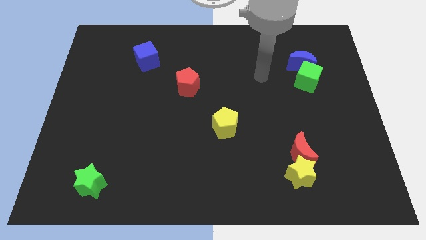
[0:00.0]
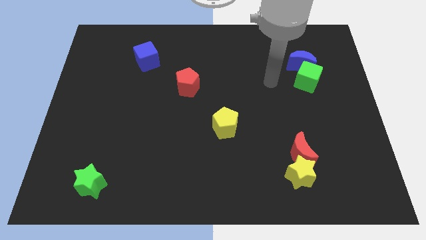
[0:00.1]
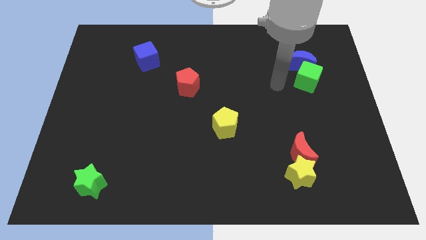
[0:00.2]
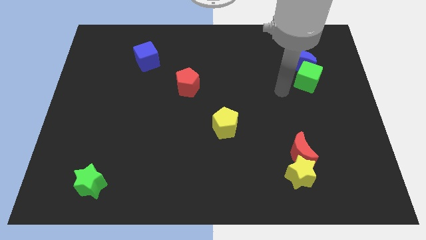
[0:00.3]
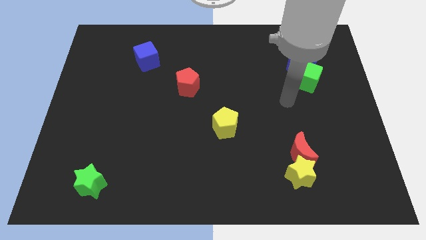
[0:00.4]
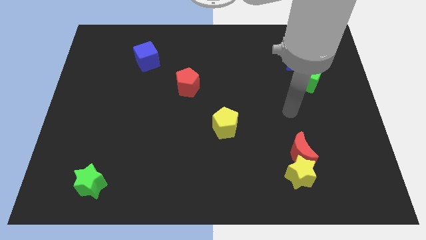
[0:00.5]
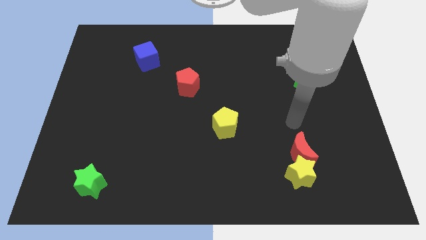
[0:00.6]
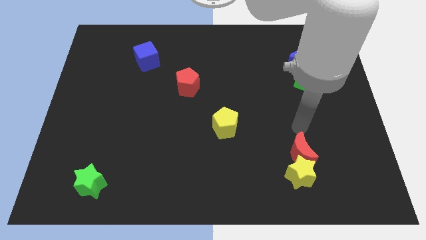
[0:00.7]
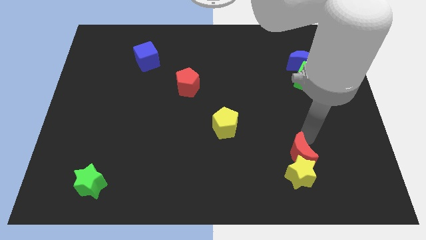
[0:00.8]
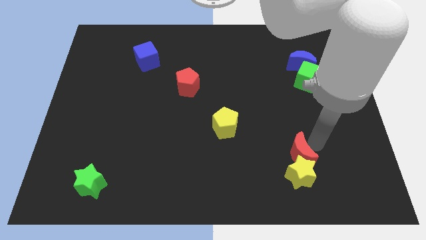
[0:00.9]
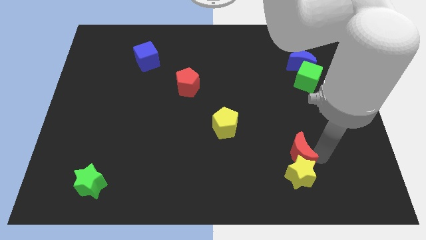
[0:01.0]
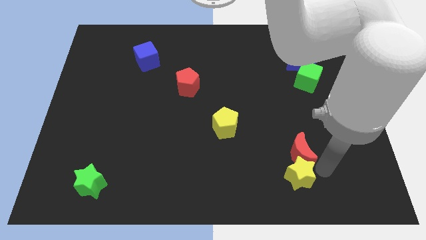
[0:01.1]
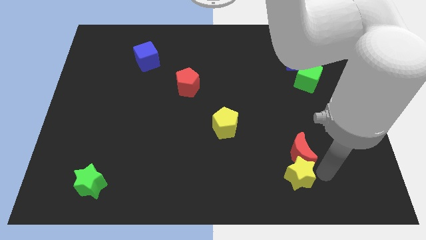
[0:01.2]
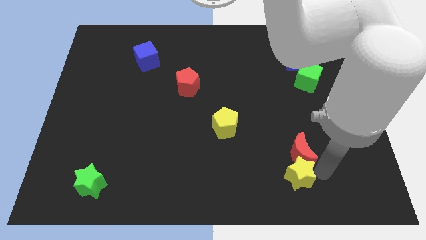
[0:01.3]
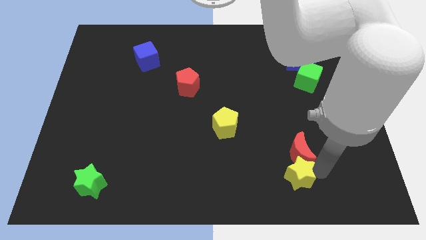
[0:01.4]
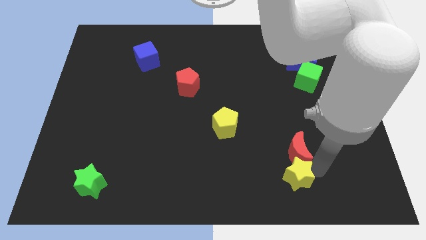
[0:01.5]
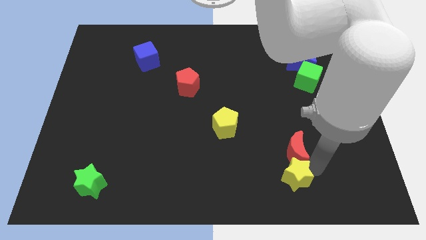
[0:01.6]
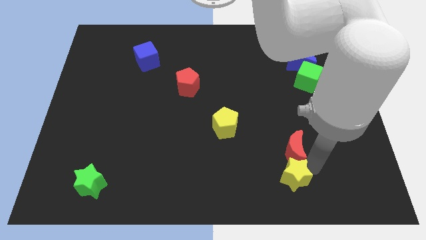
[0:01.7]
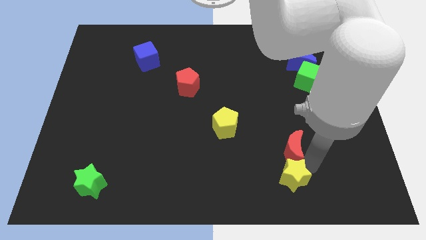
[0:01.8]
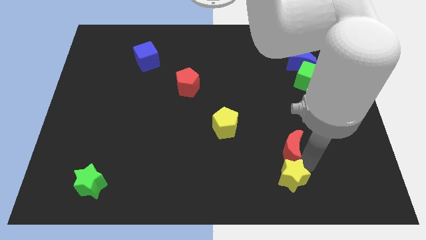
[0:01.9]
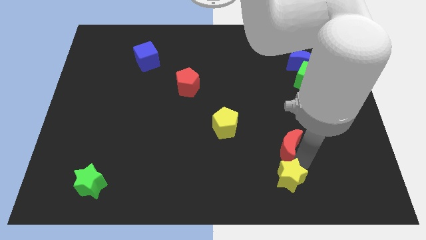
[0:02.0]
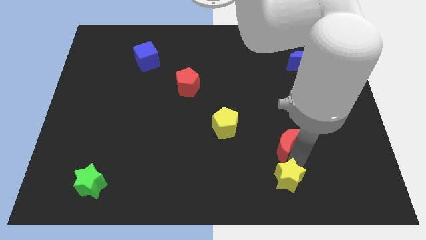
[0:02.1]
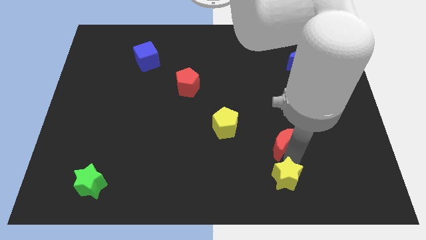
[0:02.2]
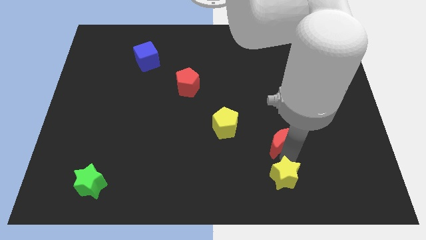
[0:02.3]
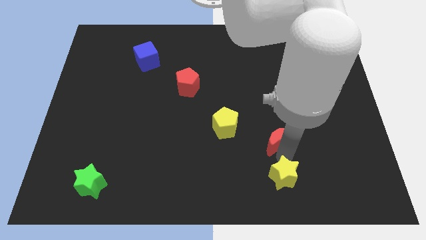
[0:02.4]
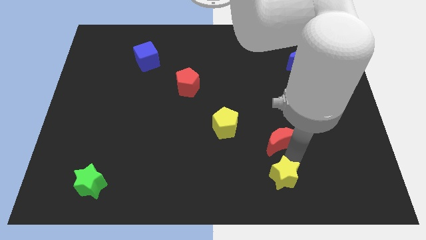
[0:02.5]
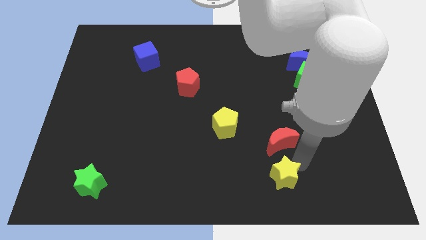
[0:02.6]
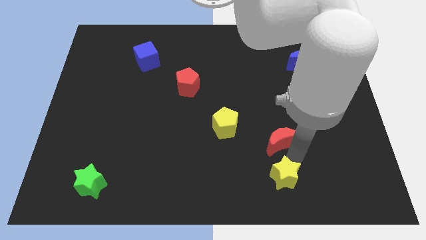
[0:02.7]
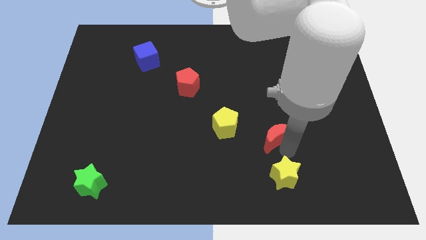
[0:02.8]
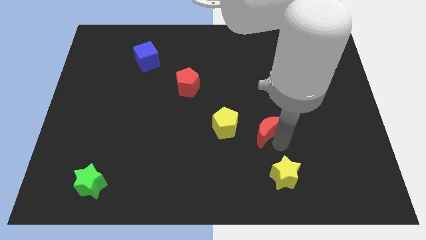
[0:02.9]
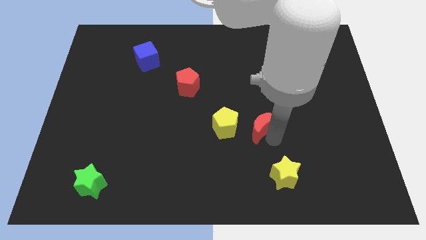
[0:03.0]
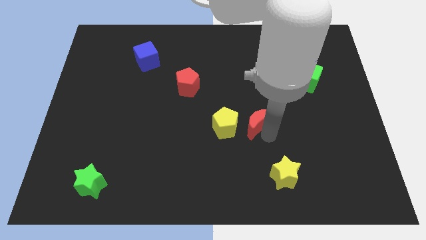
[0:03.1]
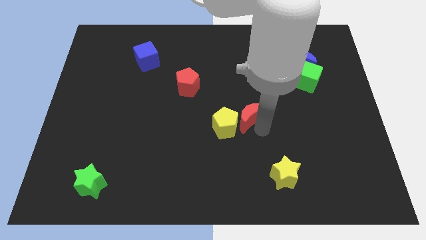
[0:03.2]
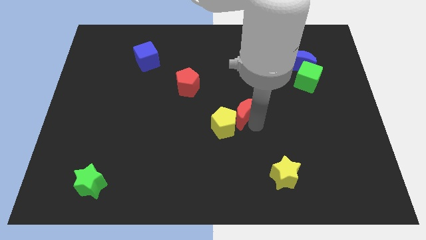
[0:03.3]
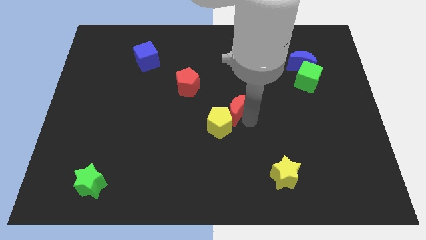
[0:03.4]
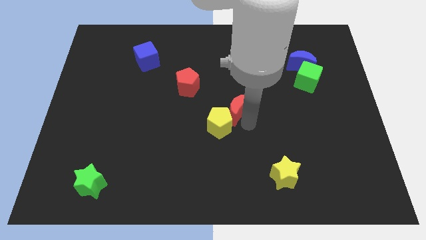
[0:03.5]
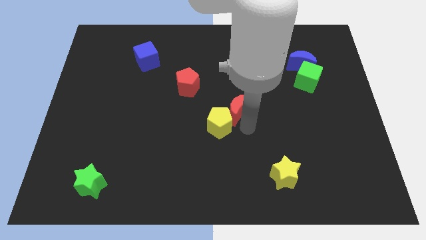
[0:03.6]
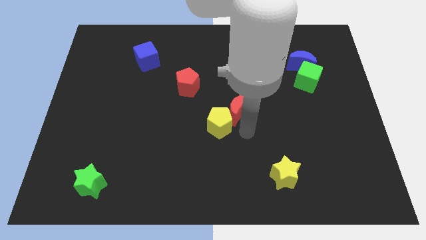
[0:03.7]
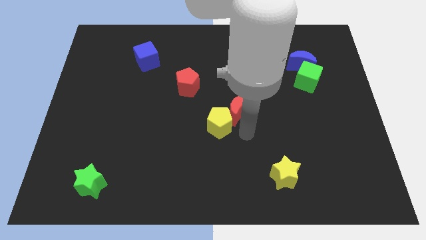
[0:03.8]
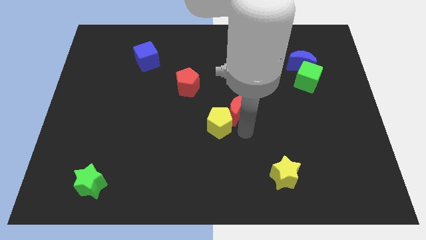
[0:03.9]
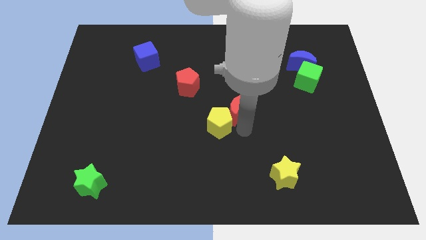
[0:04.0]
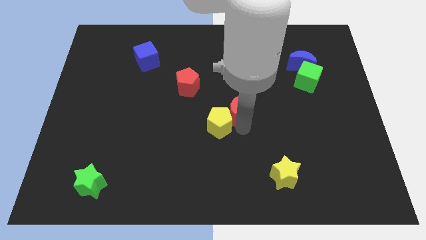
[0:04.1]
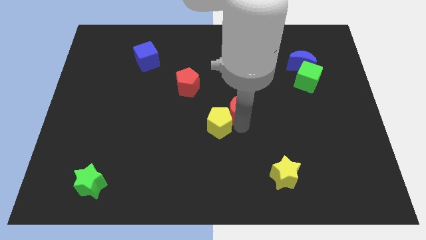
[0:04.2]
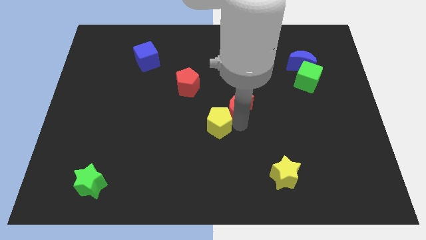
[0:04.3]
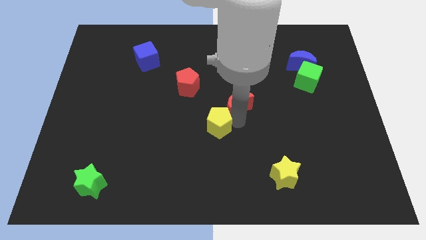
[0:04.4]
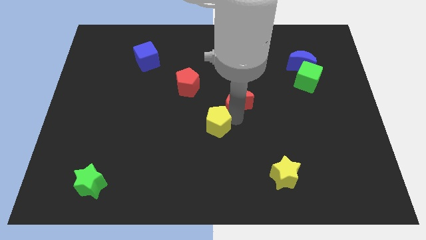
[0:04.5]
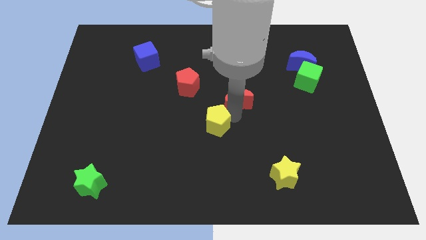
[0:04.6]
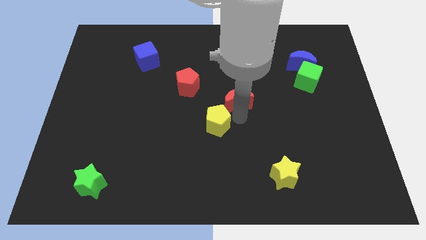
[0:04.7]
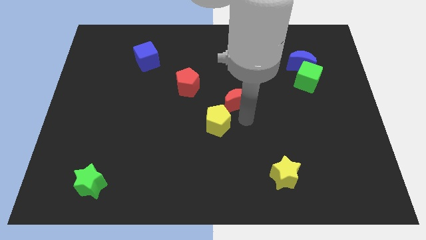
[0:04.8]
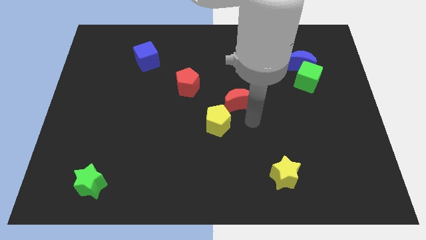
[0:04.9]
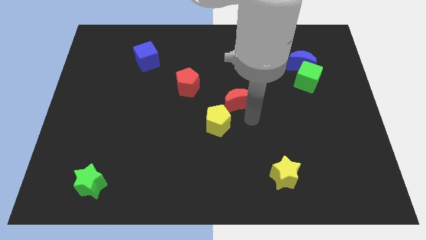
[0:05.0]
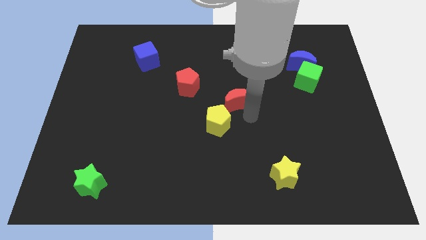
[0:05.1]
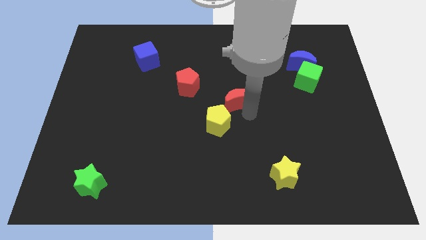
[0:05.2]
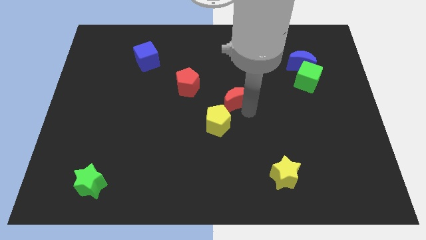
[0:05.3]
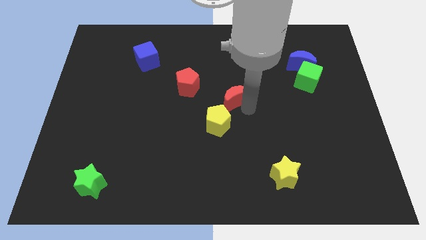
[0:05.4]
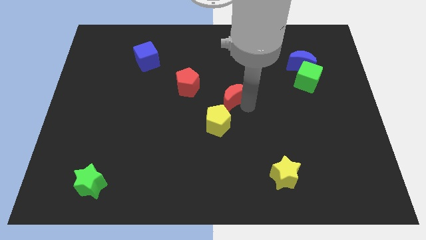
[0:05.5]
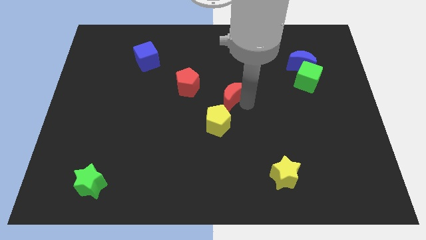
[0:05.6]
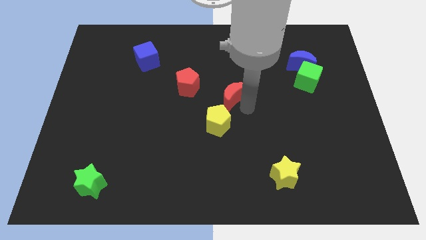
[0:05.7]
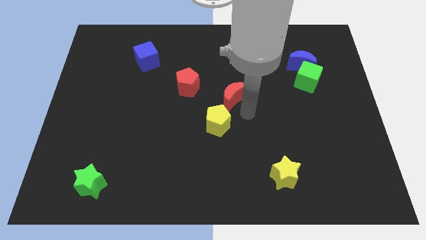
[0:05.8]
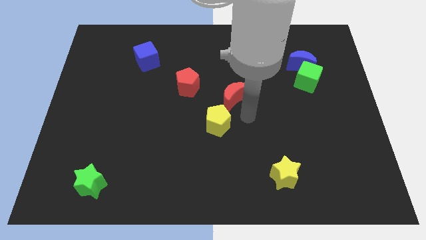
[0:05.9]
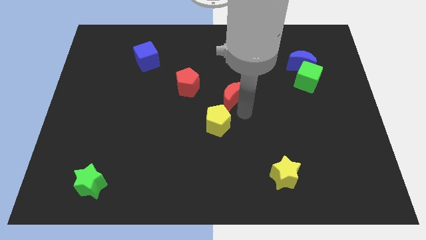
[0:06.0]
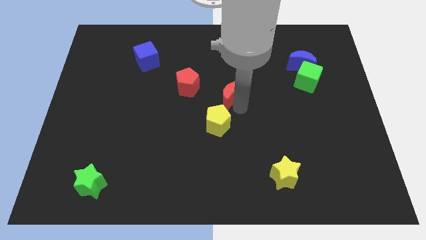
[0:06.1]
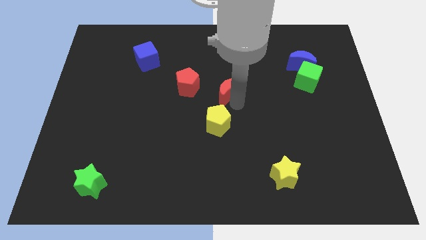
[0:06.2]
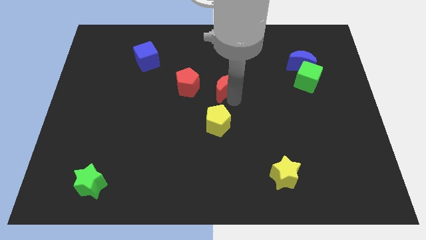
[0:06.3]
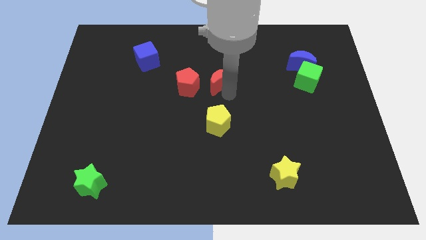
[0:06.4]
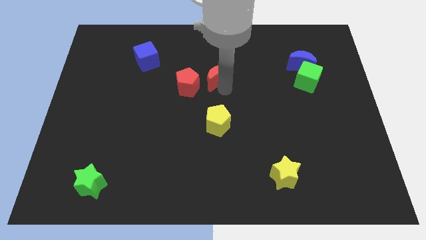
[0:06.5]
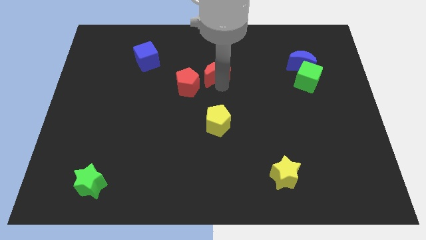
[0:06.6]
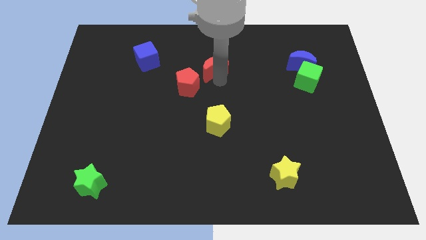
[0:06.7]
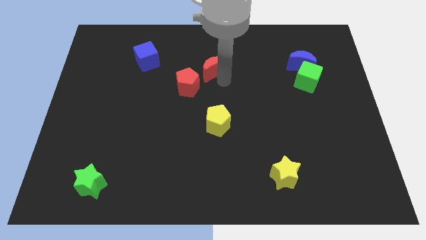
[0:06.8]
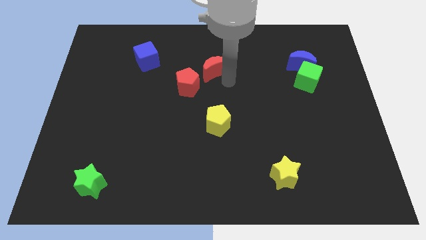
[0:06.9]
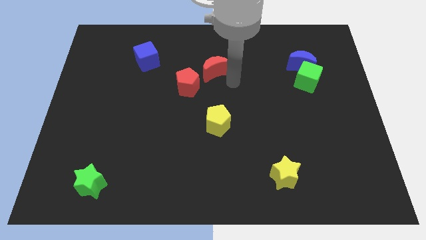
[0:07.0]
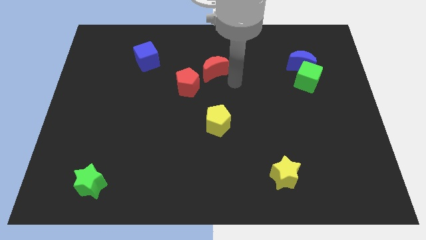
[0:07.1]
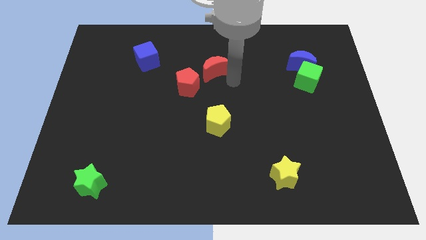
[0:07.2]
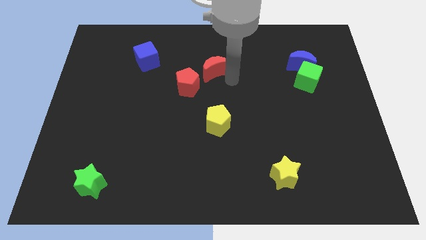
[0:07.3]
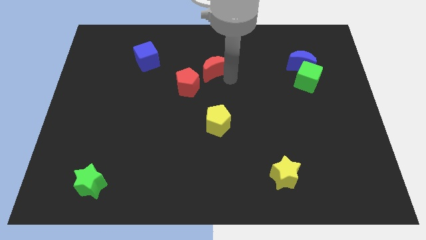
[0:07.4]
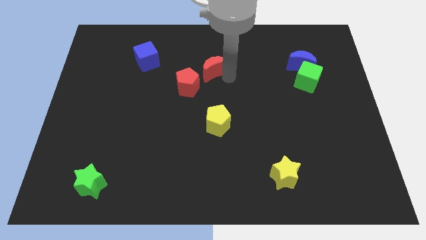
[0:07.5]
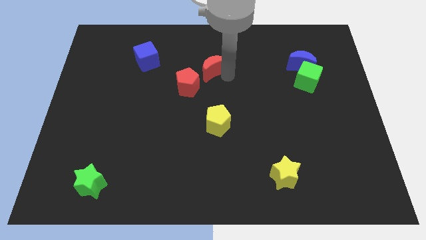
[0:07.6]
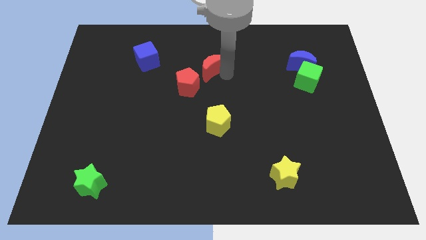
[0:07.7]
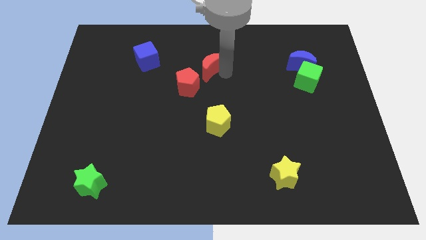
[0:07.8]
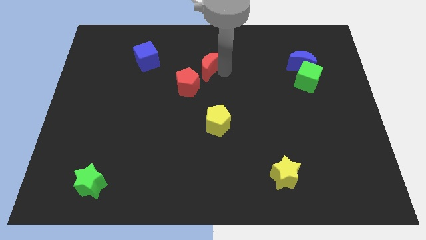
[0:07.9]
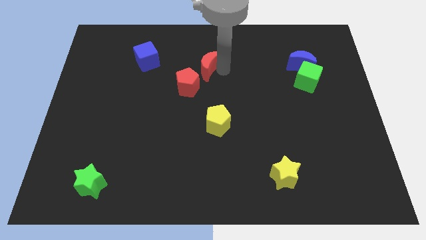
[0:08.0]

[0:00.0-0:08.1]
put the red moon above the red pentagon
